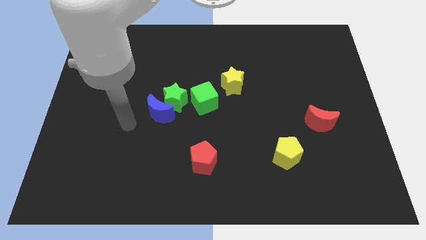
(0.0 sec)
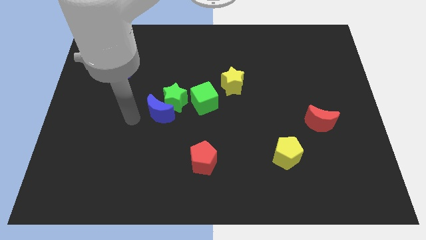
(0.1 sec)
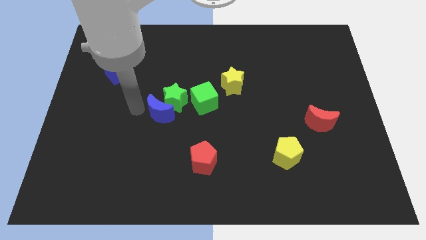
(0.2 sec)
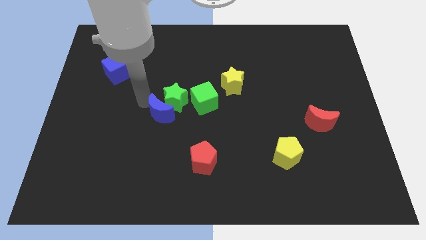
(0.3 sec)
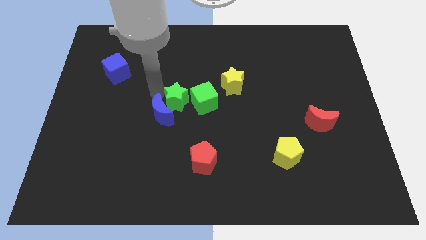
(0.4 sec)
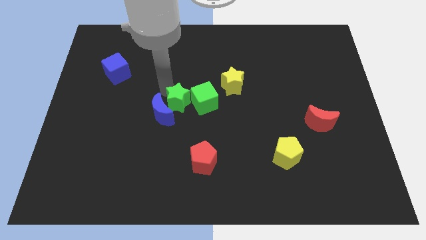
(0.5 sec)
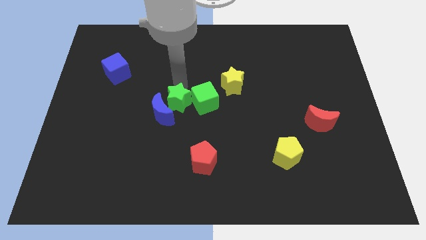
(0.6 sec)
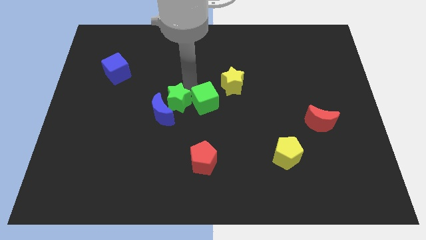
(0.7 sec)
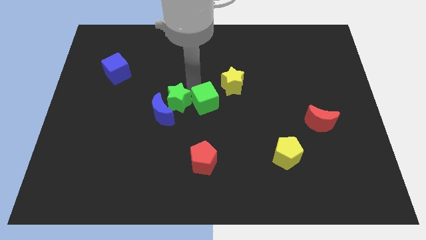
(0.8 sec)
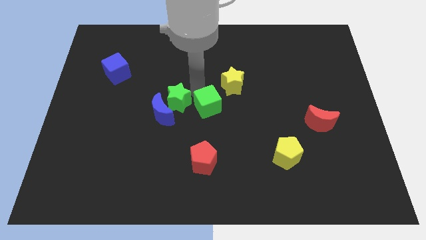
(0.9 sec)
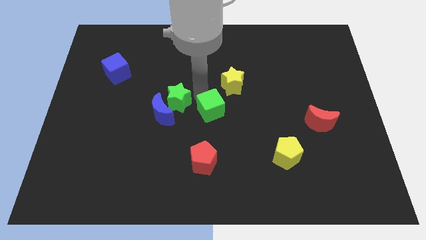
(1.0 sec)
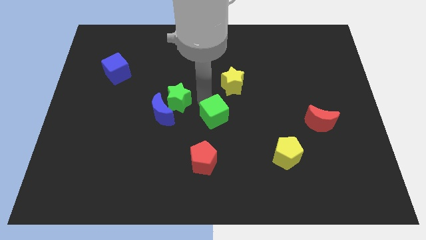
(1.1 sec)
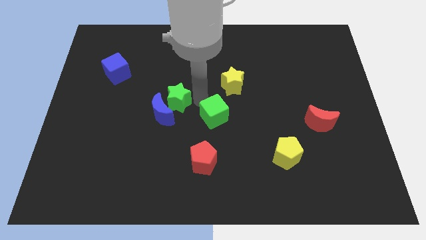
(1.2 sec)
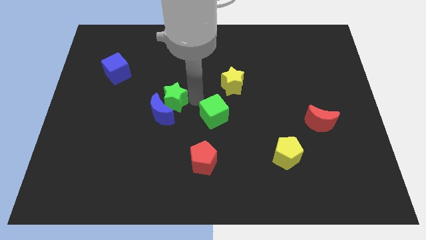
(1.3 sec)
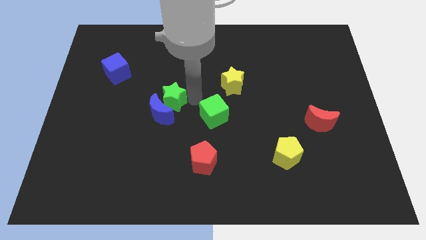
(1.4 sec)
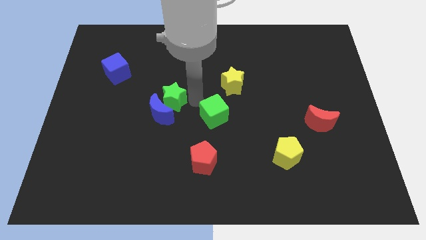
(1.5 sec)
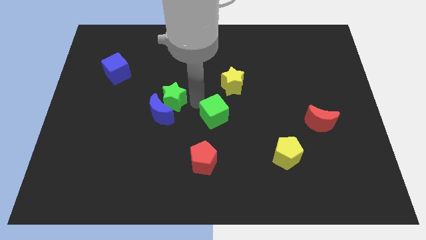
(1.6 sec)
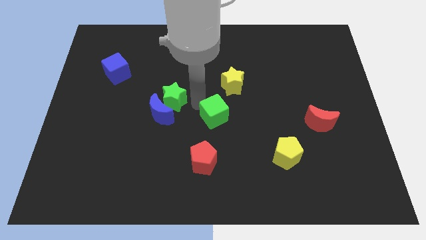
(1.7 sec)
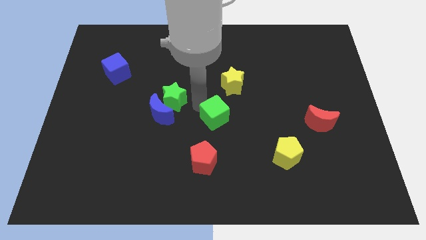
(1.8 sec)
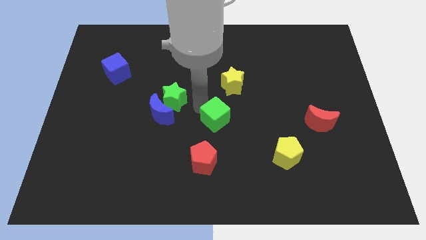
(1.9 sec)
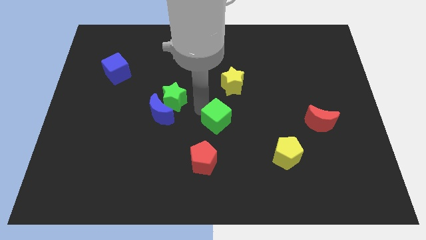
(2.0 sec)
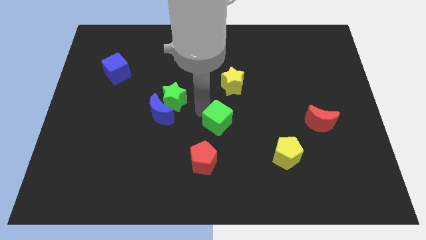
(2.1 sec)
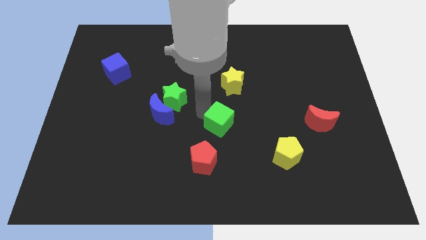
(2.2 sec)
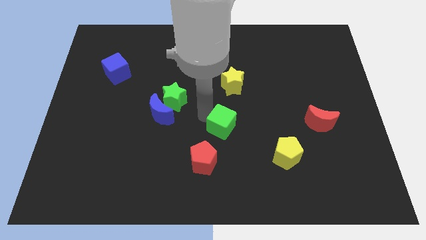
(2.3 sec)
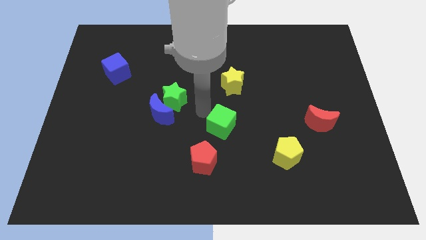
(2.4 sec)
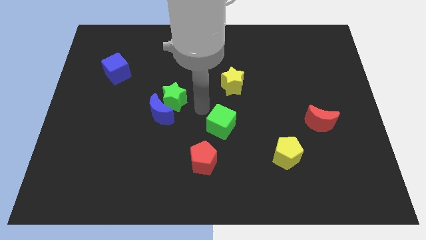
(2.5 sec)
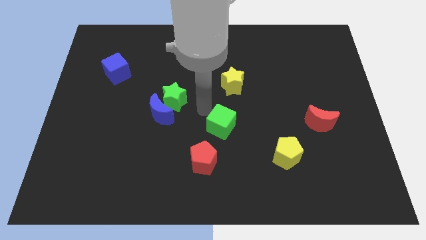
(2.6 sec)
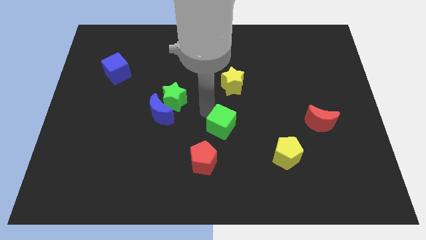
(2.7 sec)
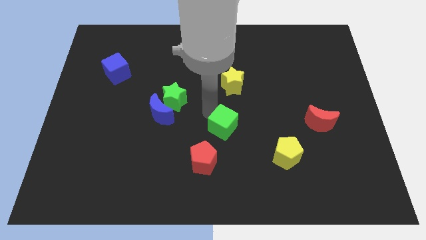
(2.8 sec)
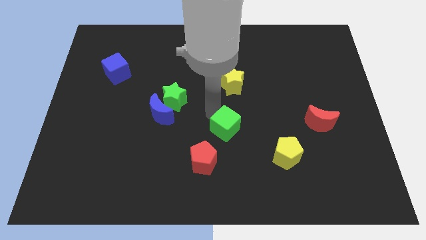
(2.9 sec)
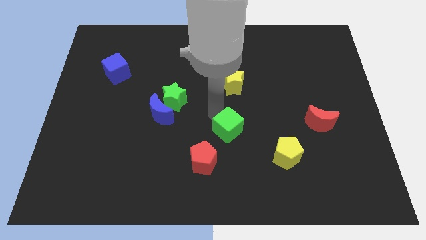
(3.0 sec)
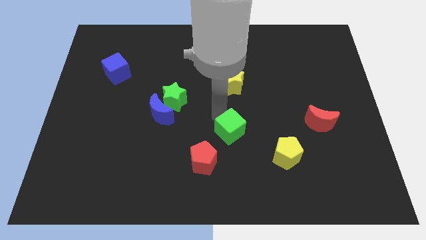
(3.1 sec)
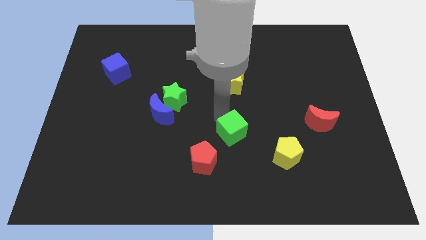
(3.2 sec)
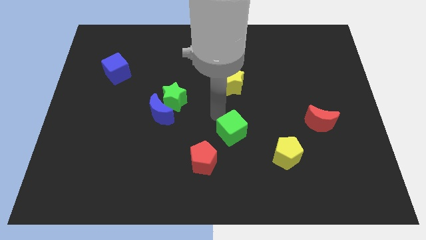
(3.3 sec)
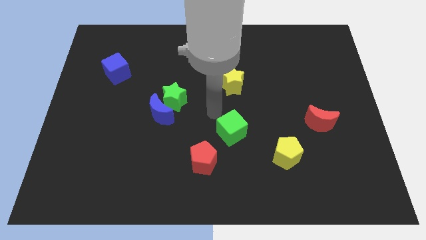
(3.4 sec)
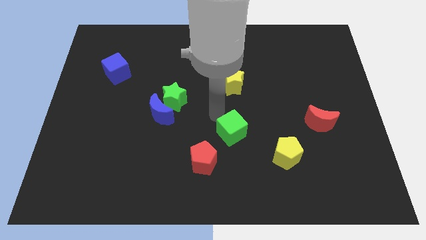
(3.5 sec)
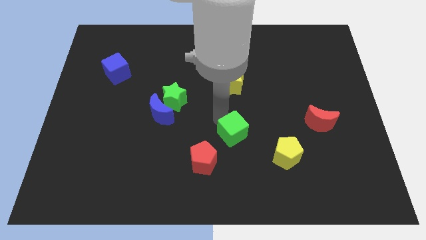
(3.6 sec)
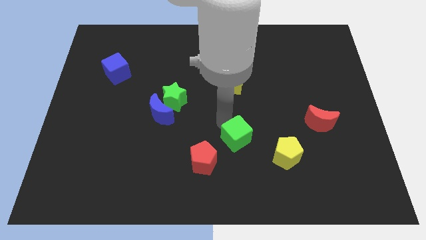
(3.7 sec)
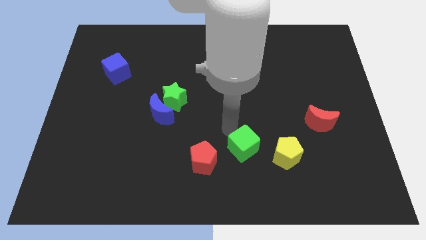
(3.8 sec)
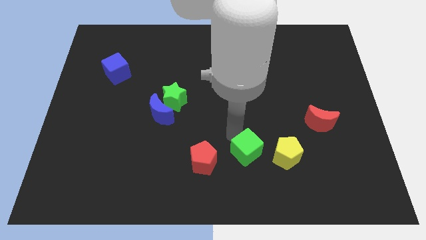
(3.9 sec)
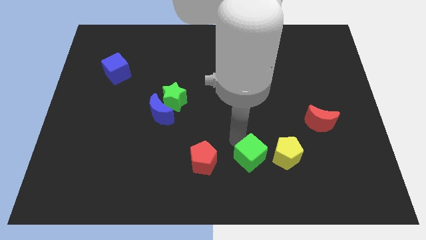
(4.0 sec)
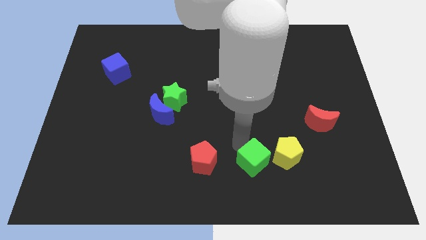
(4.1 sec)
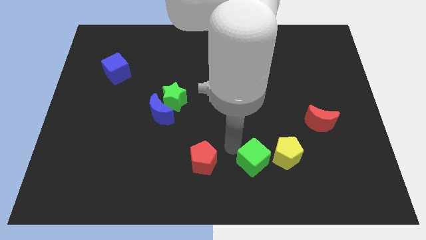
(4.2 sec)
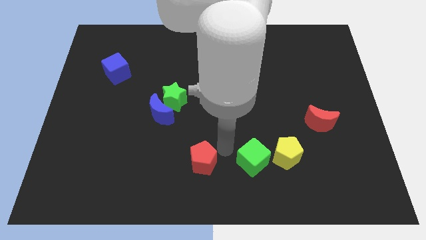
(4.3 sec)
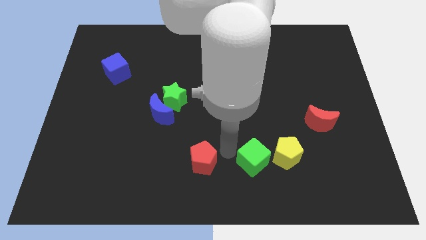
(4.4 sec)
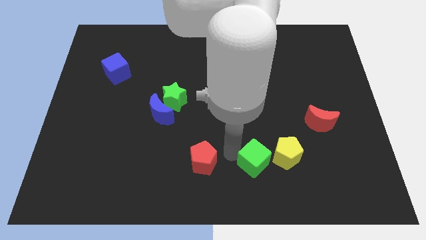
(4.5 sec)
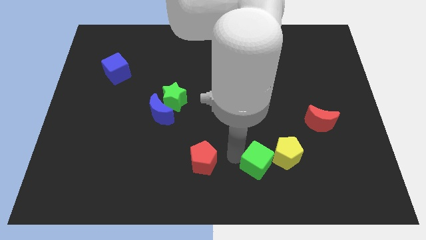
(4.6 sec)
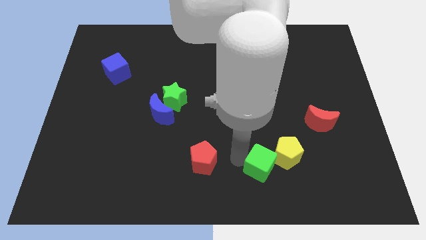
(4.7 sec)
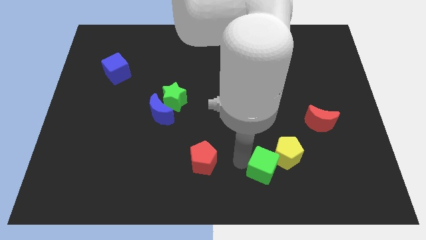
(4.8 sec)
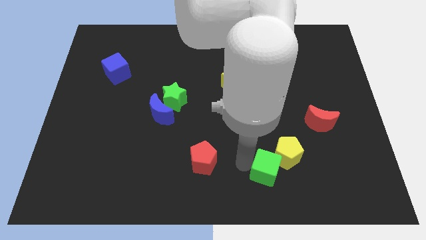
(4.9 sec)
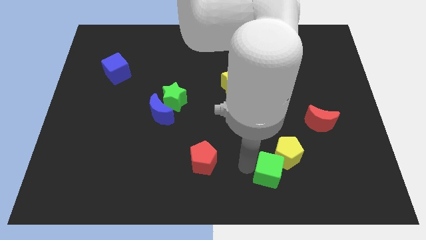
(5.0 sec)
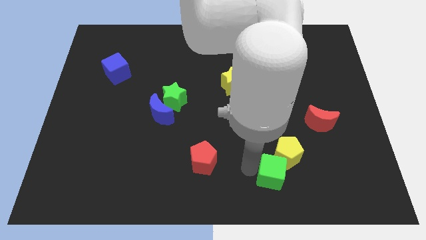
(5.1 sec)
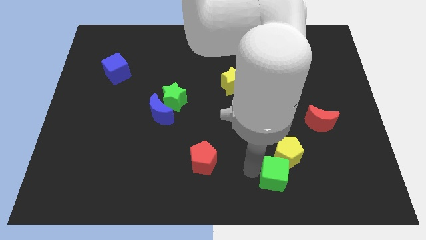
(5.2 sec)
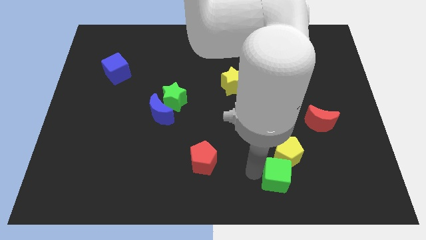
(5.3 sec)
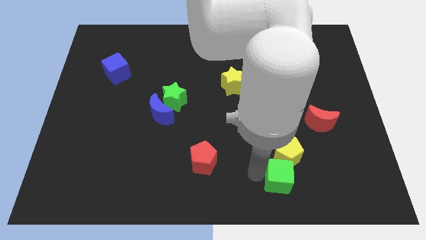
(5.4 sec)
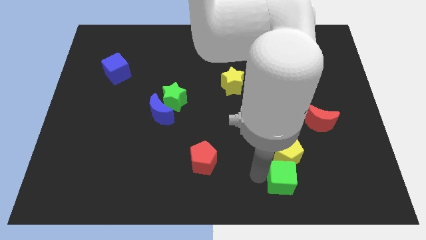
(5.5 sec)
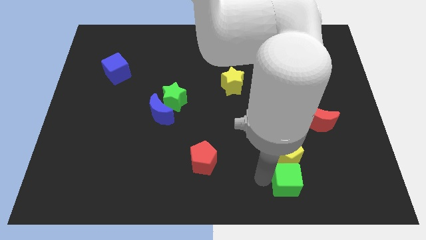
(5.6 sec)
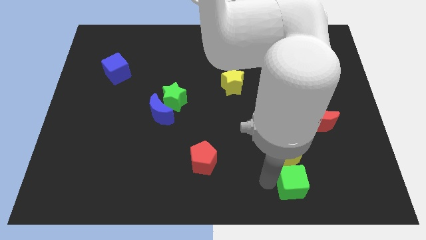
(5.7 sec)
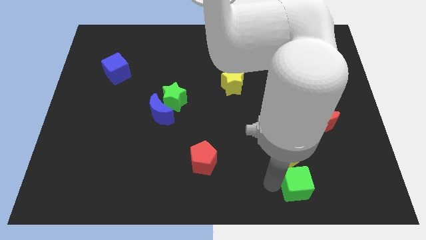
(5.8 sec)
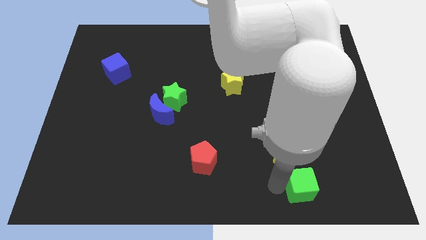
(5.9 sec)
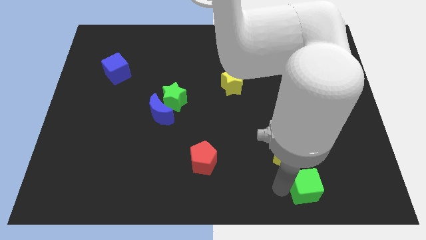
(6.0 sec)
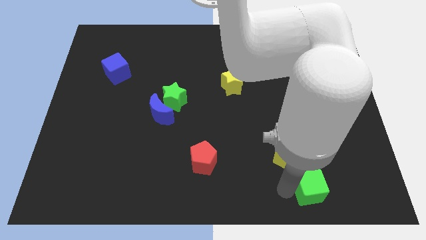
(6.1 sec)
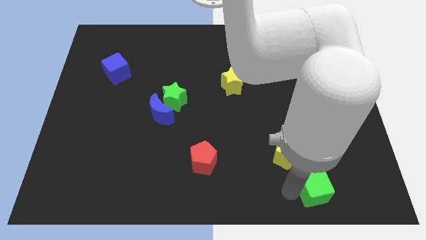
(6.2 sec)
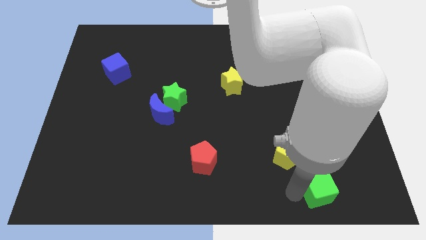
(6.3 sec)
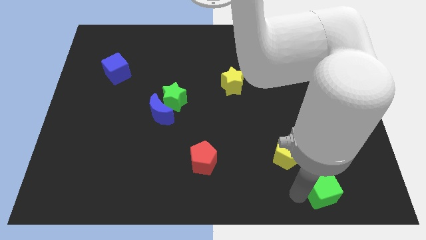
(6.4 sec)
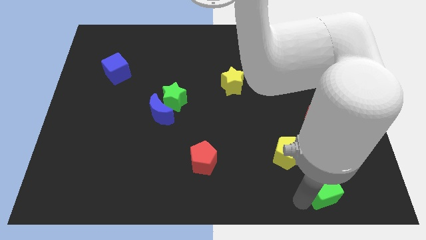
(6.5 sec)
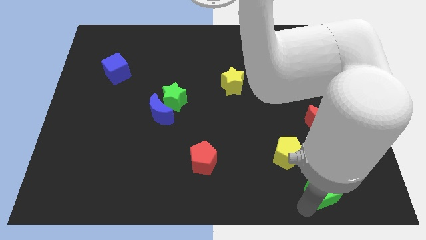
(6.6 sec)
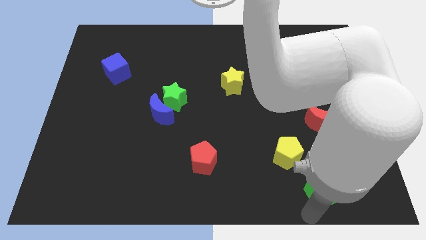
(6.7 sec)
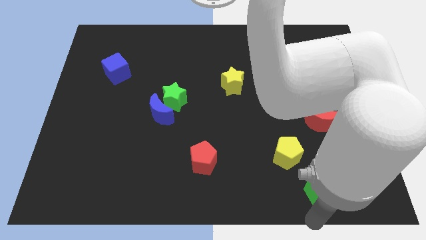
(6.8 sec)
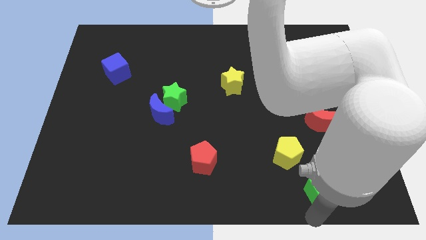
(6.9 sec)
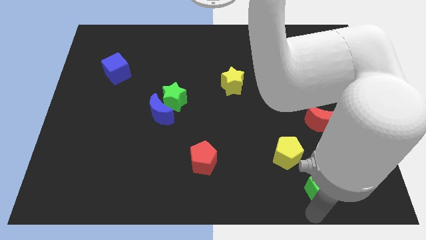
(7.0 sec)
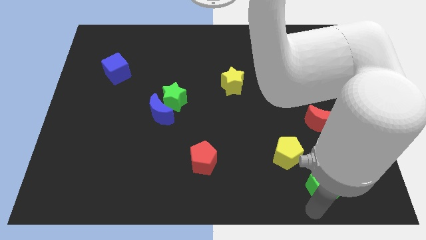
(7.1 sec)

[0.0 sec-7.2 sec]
put the green cube to the bottom side of the red moon
